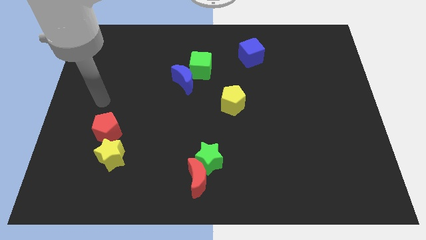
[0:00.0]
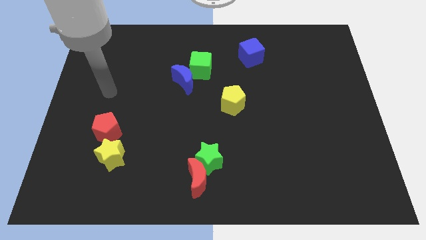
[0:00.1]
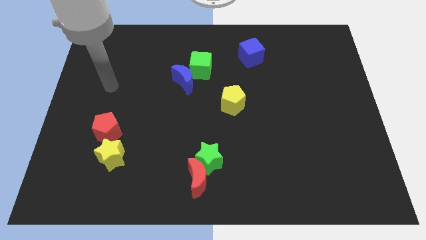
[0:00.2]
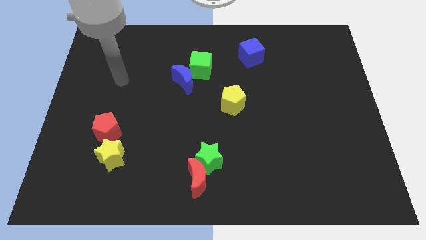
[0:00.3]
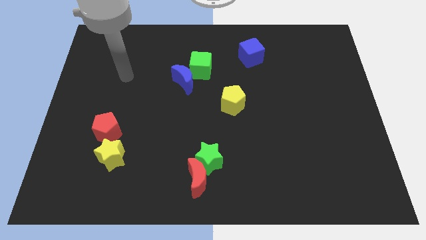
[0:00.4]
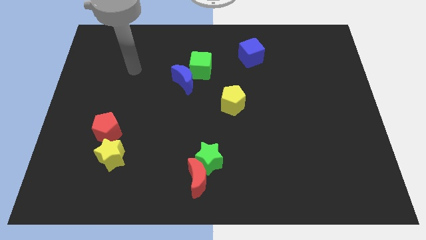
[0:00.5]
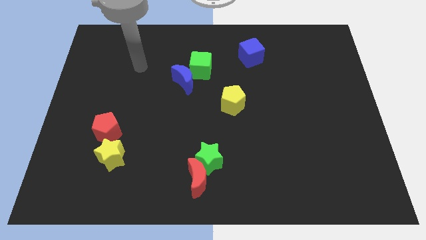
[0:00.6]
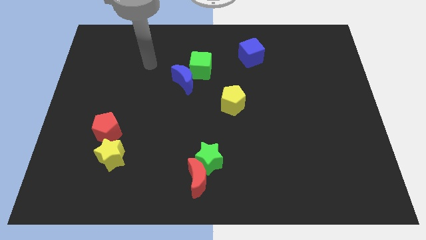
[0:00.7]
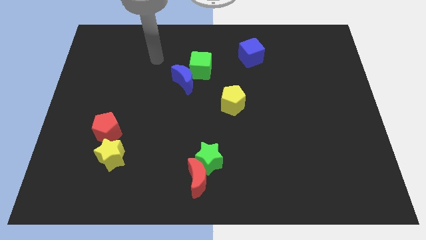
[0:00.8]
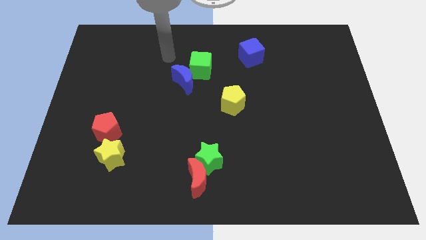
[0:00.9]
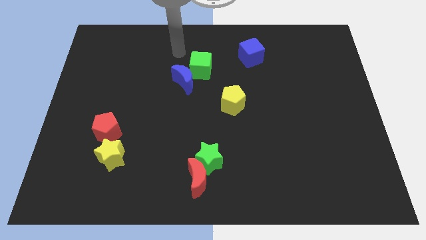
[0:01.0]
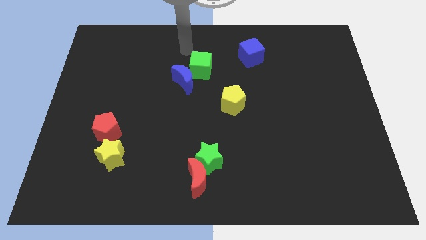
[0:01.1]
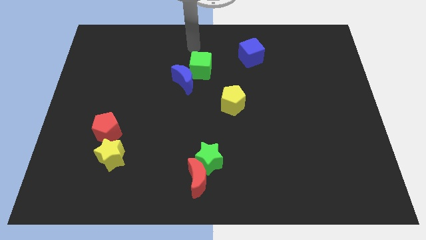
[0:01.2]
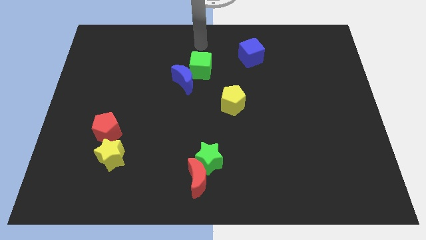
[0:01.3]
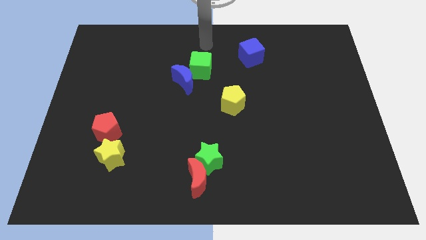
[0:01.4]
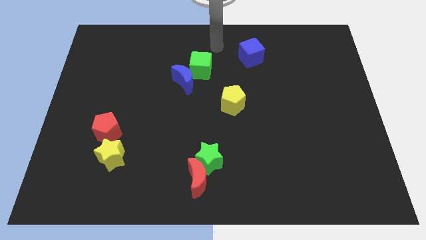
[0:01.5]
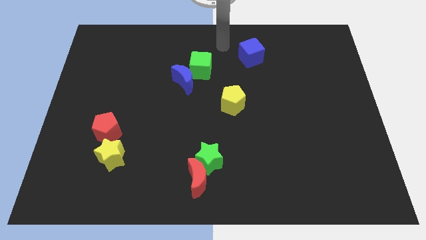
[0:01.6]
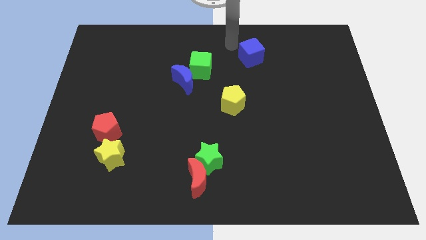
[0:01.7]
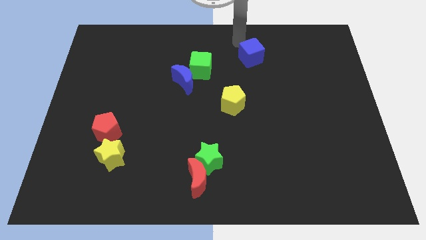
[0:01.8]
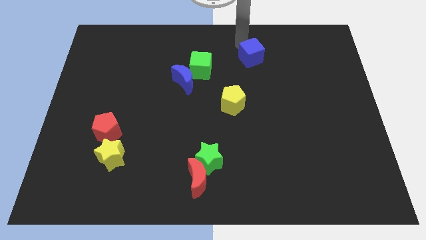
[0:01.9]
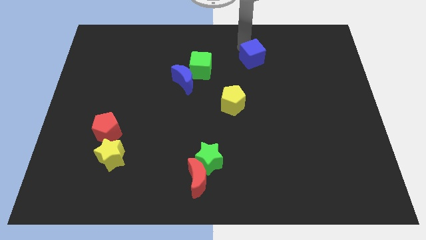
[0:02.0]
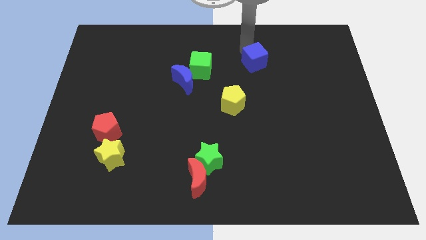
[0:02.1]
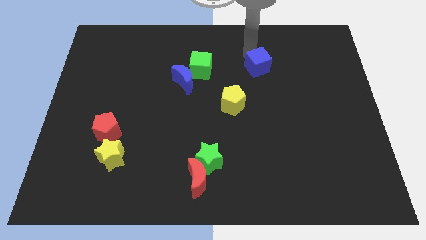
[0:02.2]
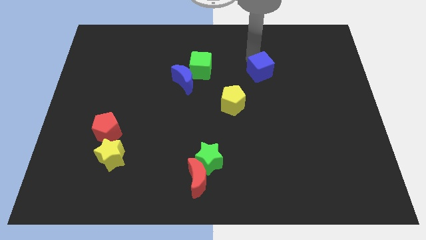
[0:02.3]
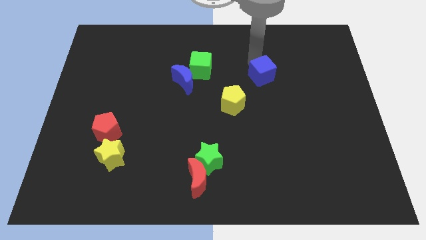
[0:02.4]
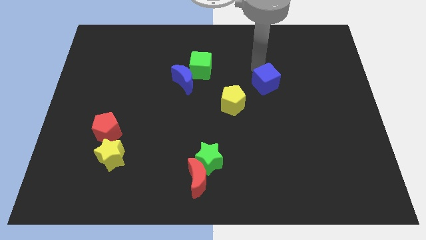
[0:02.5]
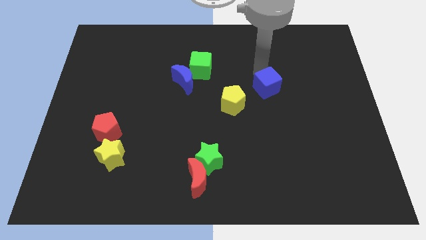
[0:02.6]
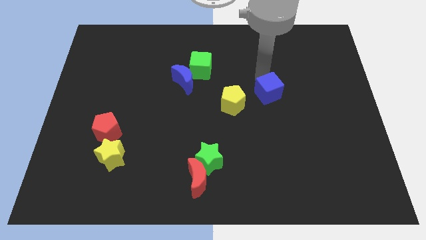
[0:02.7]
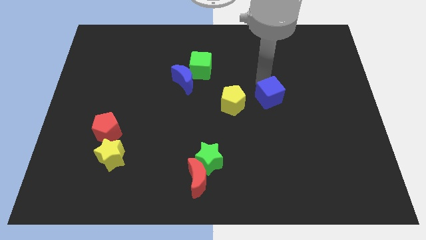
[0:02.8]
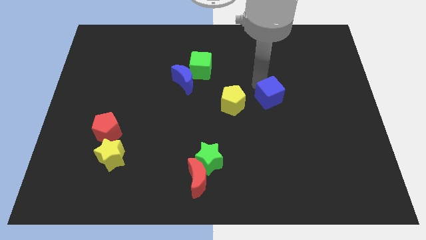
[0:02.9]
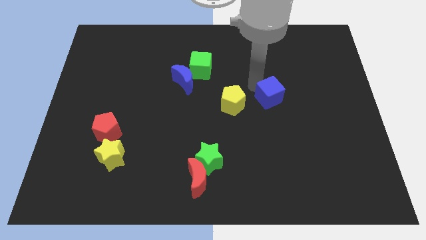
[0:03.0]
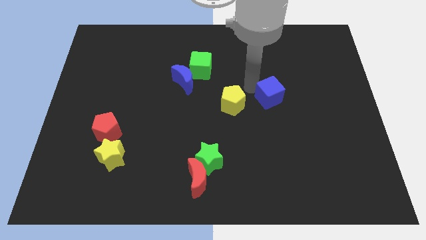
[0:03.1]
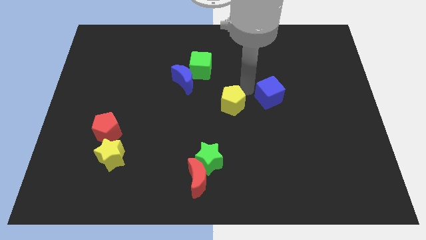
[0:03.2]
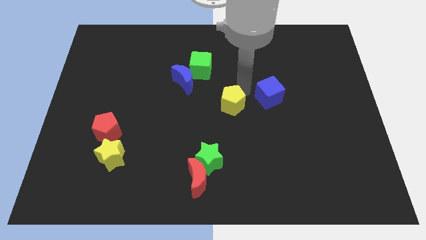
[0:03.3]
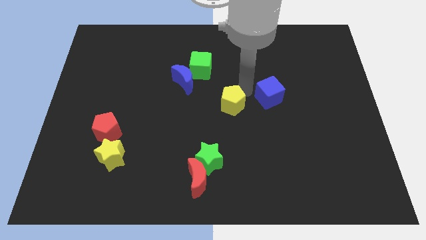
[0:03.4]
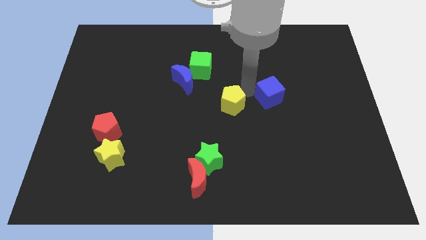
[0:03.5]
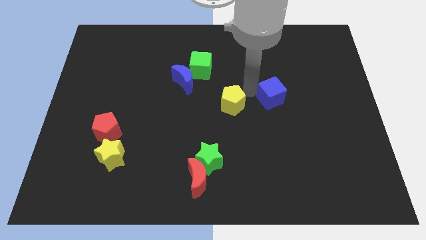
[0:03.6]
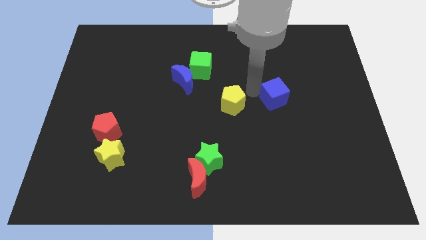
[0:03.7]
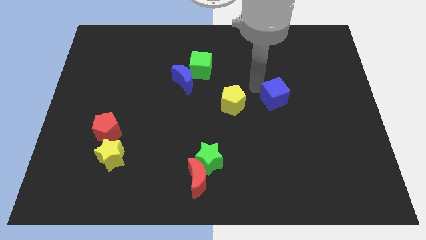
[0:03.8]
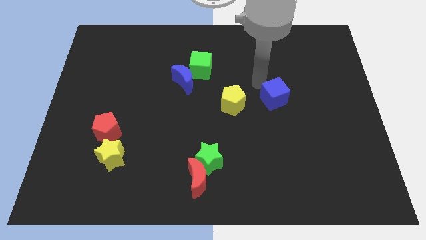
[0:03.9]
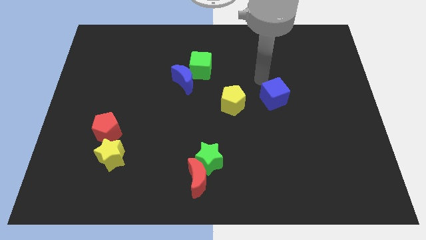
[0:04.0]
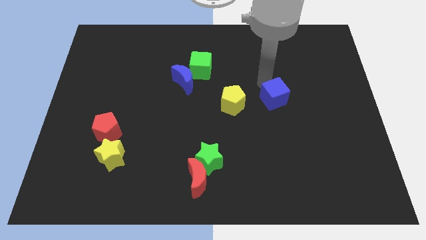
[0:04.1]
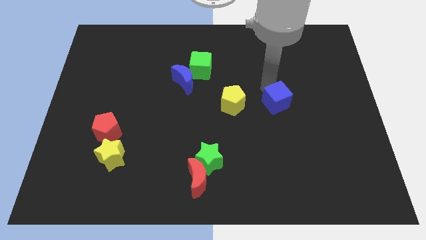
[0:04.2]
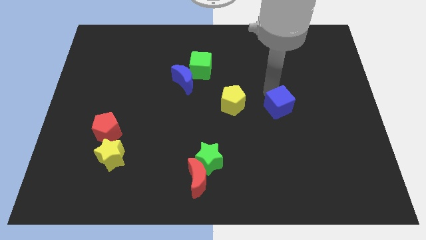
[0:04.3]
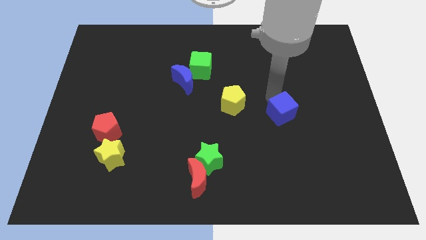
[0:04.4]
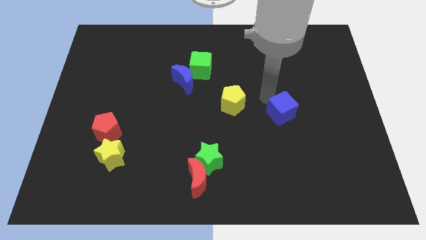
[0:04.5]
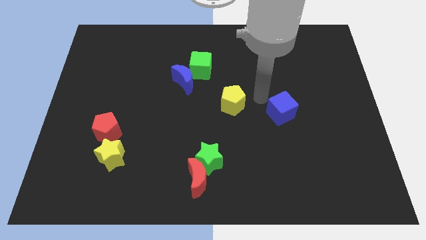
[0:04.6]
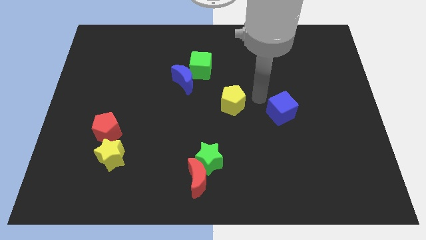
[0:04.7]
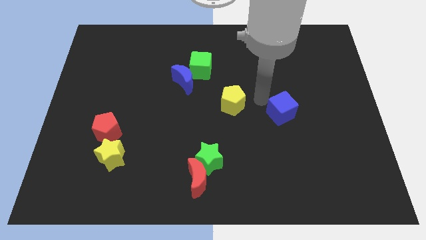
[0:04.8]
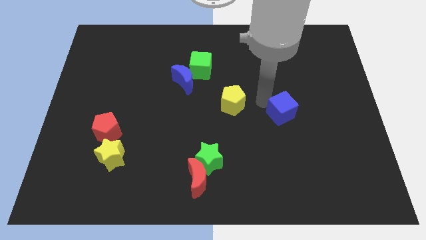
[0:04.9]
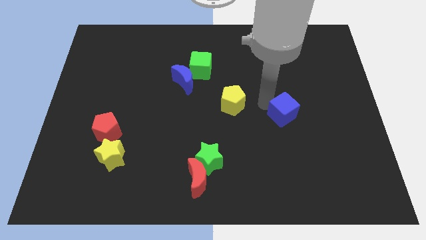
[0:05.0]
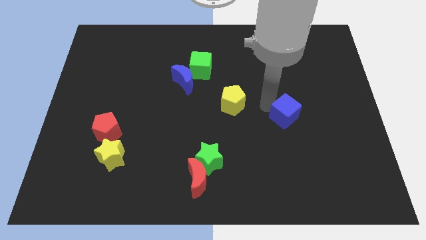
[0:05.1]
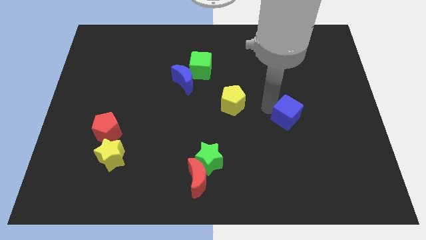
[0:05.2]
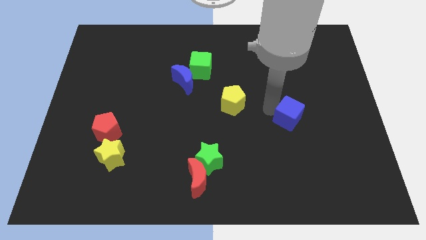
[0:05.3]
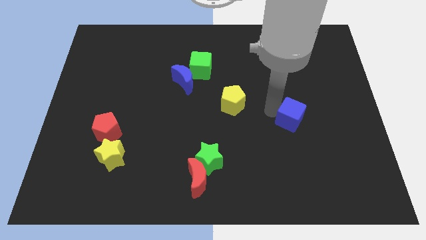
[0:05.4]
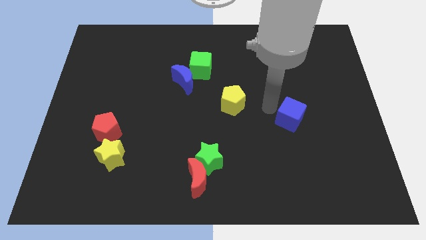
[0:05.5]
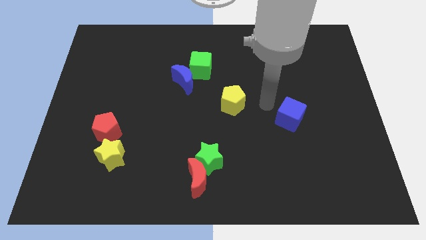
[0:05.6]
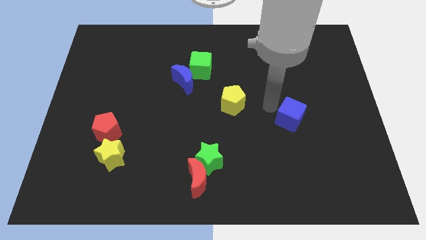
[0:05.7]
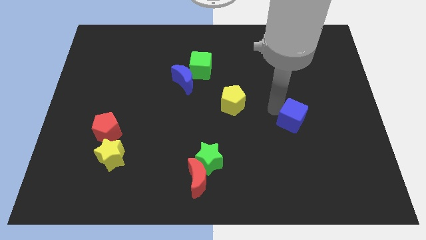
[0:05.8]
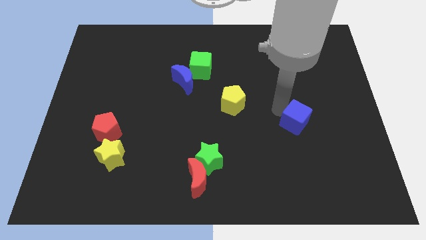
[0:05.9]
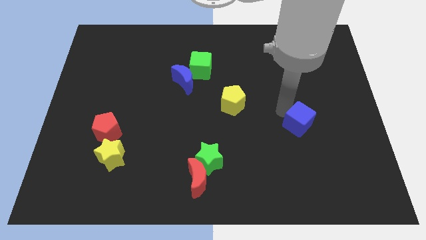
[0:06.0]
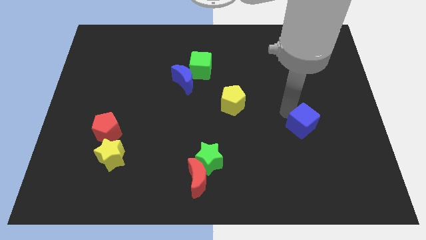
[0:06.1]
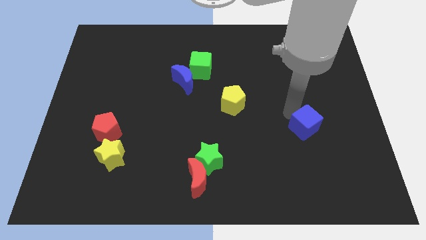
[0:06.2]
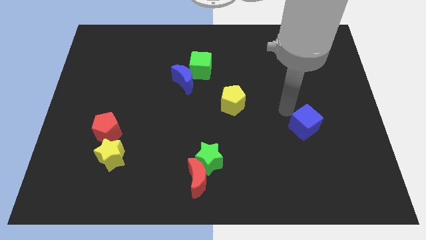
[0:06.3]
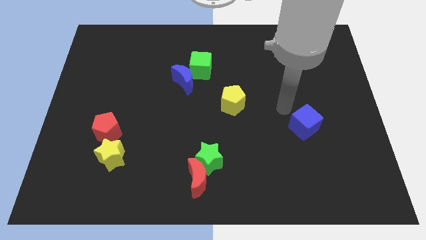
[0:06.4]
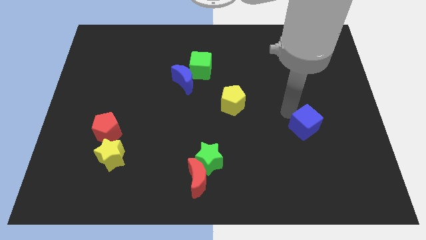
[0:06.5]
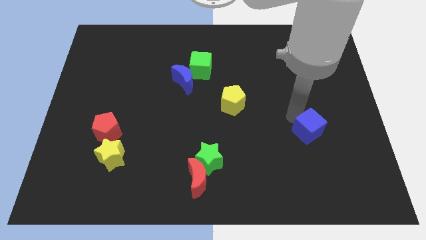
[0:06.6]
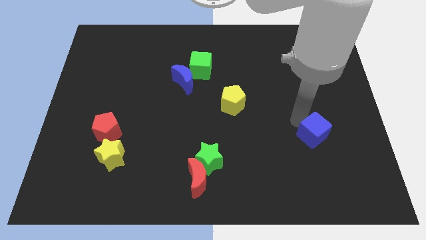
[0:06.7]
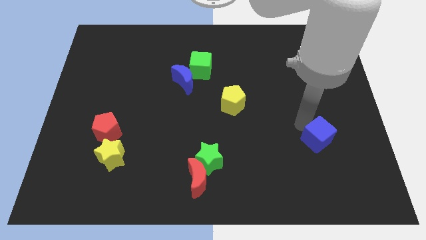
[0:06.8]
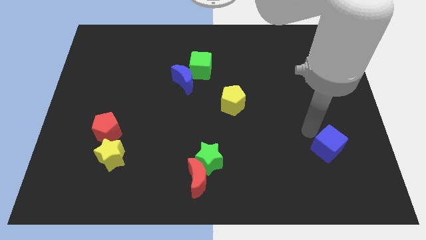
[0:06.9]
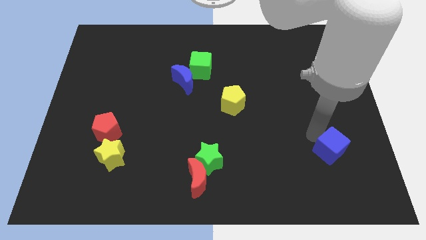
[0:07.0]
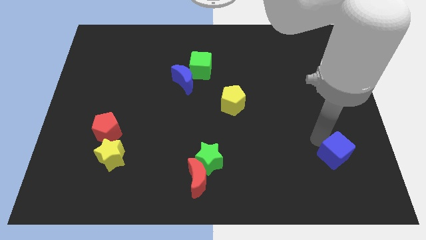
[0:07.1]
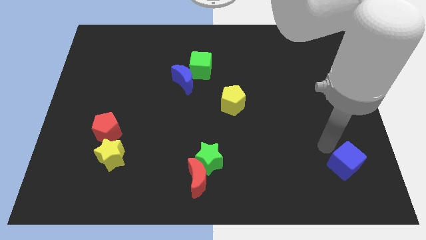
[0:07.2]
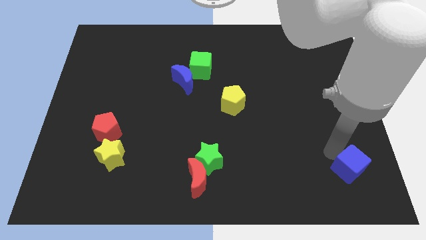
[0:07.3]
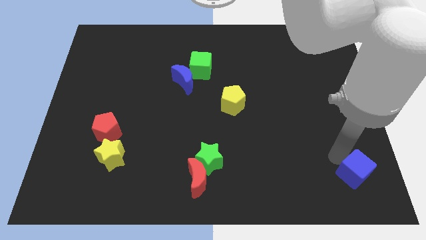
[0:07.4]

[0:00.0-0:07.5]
push the blue cube to the lower right corner
